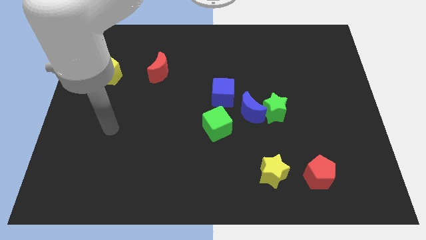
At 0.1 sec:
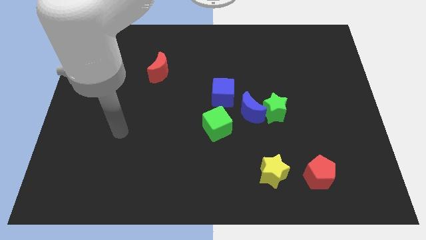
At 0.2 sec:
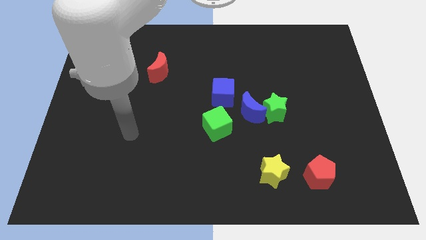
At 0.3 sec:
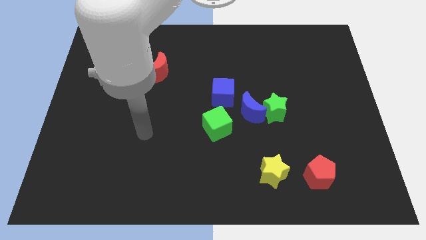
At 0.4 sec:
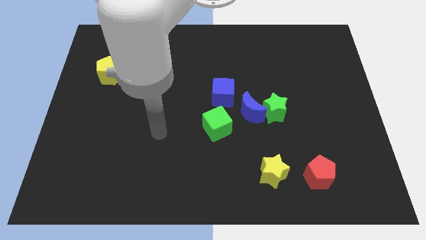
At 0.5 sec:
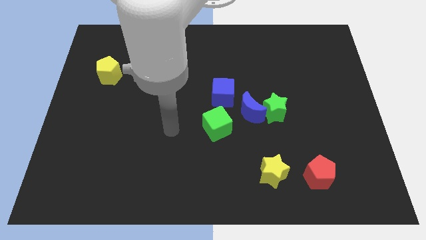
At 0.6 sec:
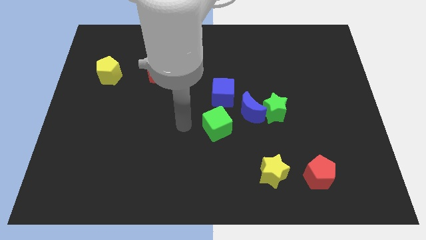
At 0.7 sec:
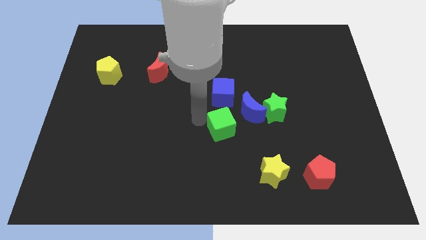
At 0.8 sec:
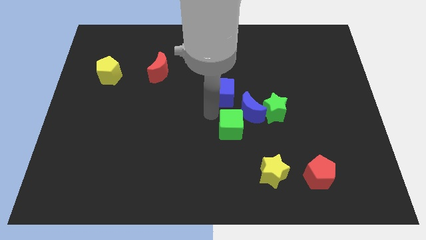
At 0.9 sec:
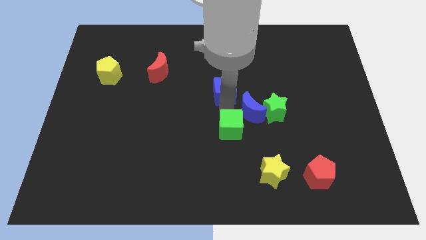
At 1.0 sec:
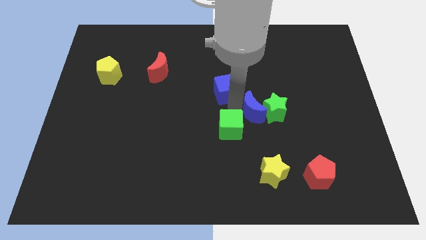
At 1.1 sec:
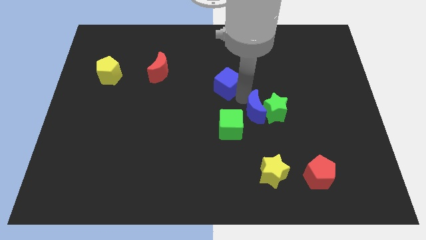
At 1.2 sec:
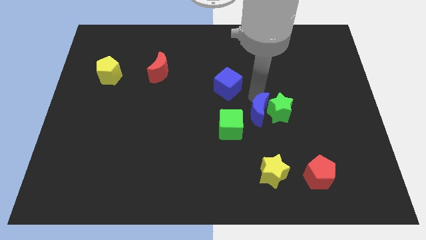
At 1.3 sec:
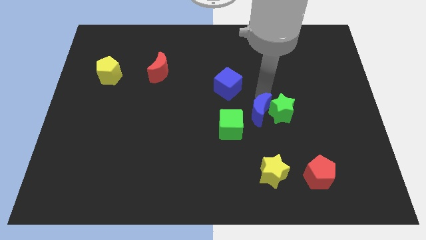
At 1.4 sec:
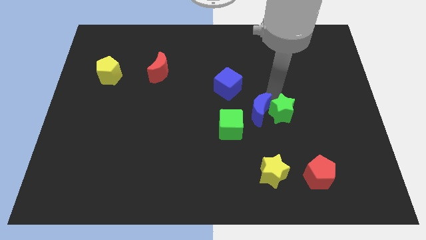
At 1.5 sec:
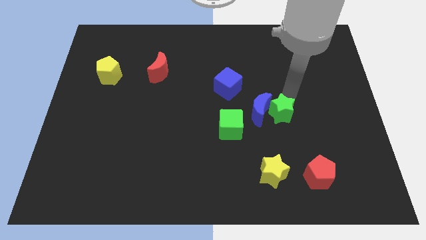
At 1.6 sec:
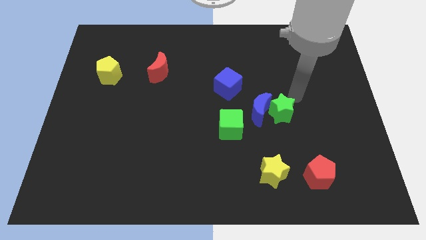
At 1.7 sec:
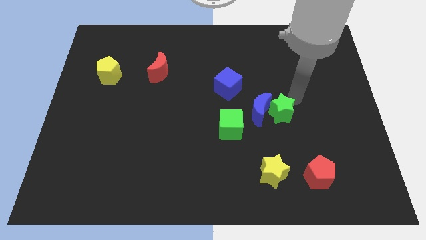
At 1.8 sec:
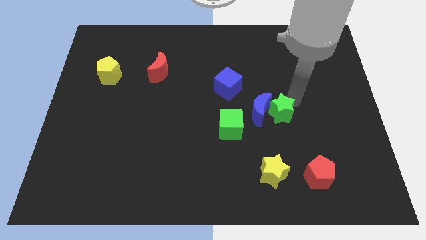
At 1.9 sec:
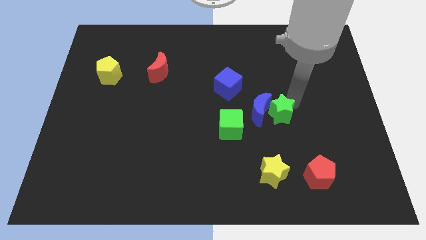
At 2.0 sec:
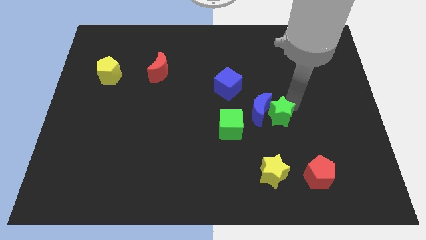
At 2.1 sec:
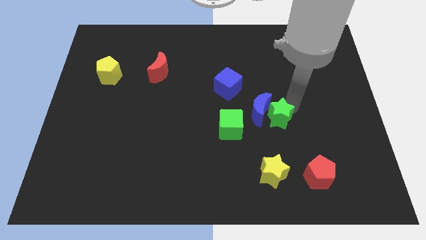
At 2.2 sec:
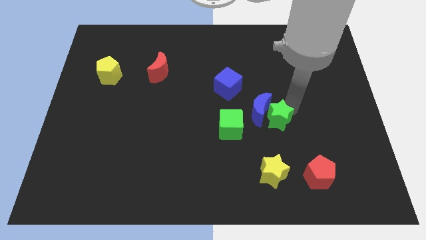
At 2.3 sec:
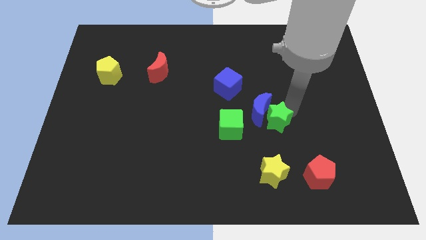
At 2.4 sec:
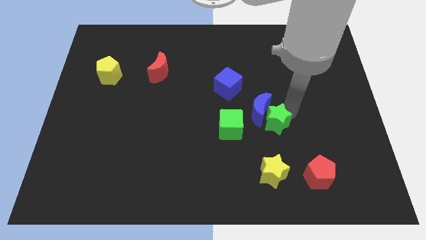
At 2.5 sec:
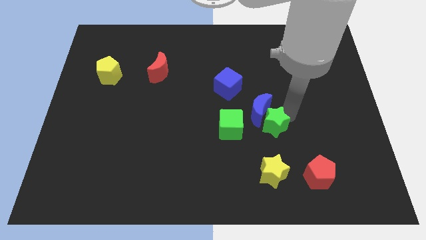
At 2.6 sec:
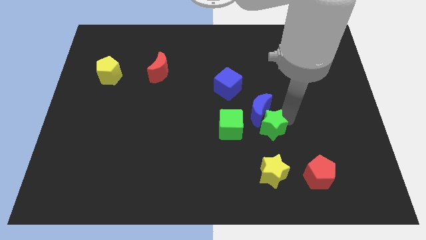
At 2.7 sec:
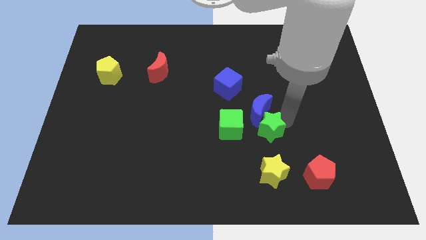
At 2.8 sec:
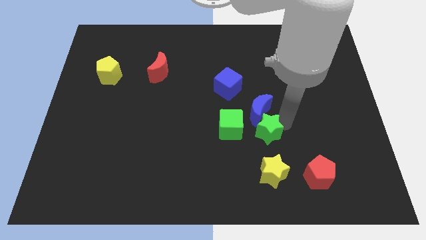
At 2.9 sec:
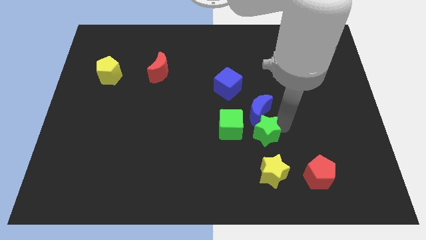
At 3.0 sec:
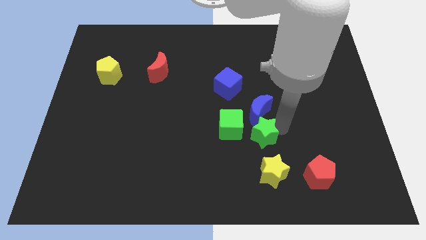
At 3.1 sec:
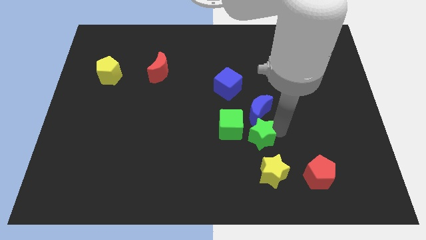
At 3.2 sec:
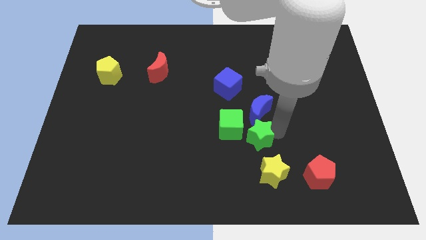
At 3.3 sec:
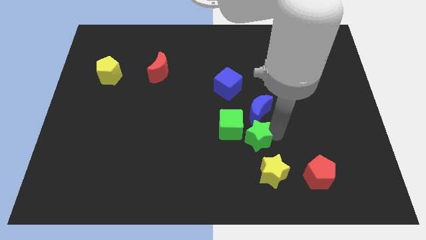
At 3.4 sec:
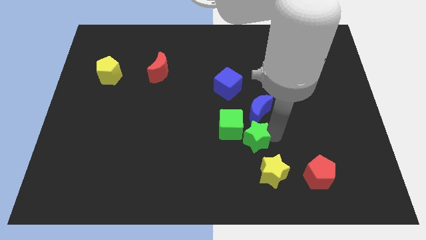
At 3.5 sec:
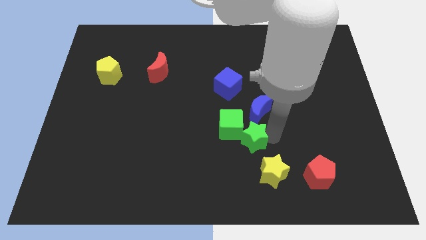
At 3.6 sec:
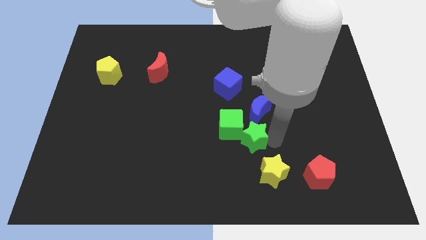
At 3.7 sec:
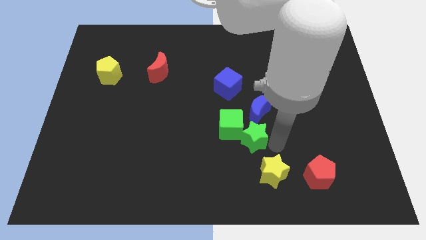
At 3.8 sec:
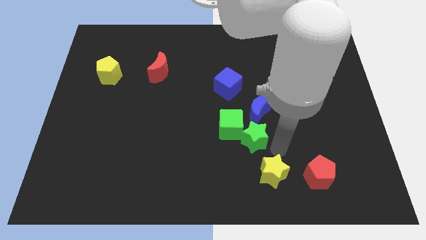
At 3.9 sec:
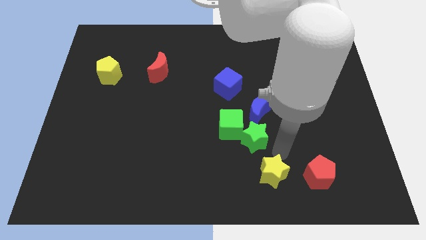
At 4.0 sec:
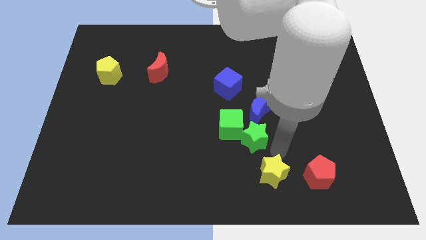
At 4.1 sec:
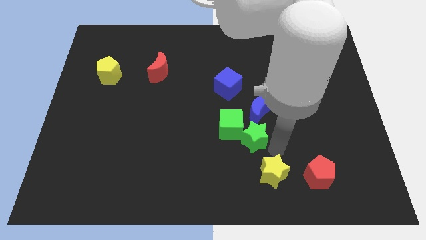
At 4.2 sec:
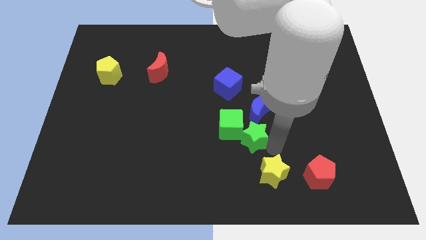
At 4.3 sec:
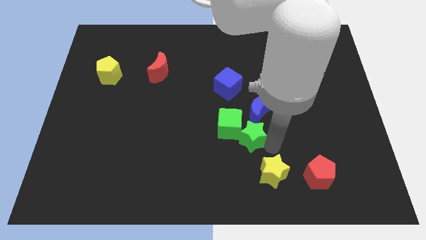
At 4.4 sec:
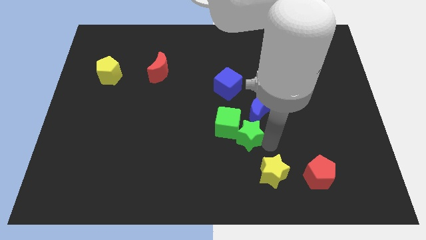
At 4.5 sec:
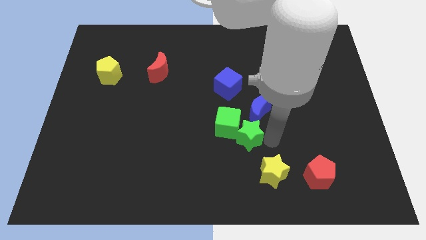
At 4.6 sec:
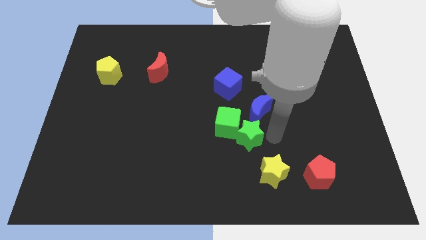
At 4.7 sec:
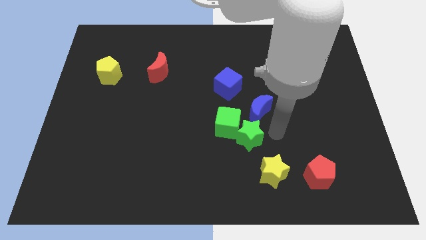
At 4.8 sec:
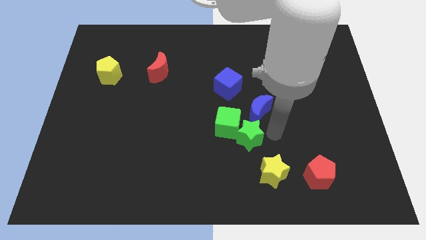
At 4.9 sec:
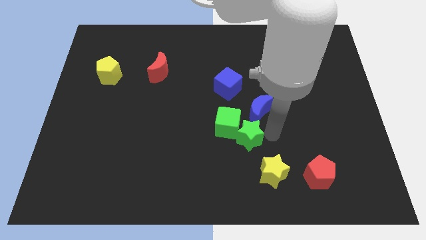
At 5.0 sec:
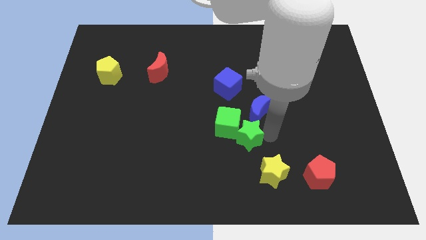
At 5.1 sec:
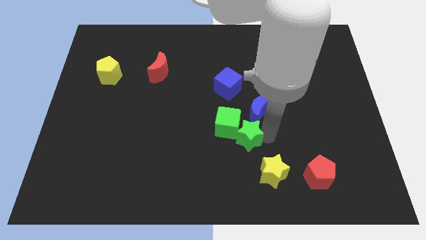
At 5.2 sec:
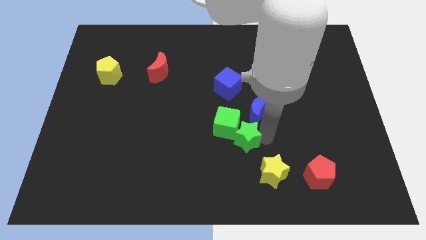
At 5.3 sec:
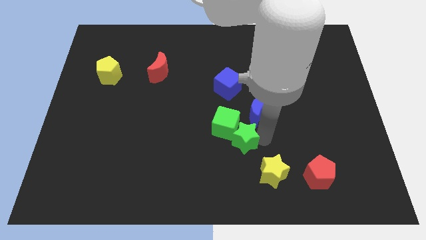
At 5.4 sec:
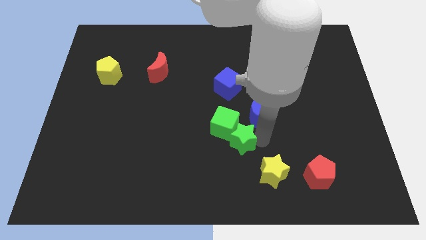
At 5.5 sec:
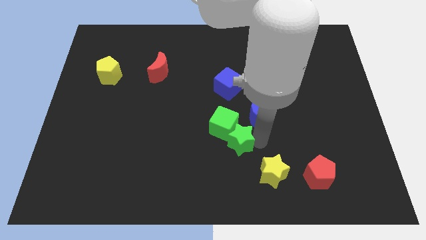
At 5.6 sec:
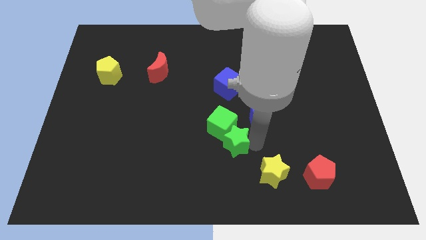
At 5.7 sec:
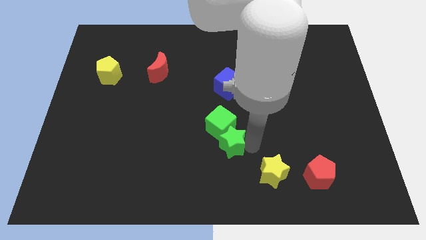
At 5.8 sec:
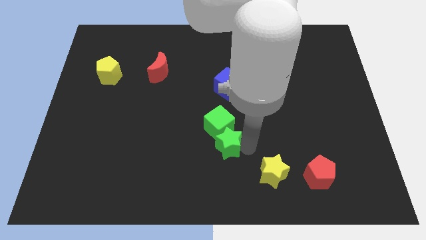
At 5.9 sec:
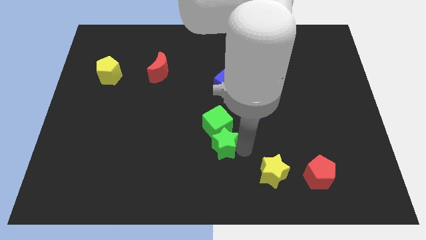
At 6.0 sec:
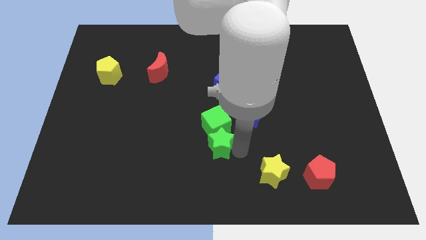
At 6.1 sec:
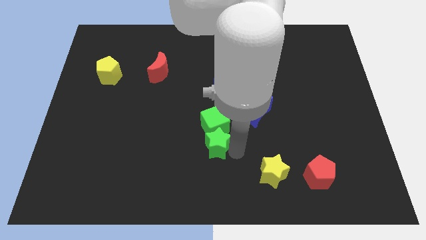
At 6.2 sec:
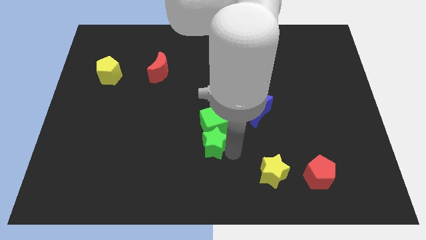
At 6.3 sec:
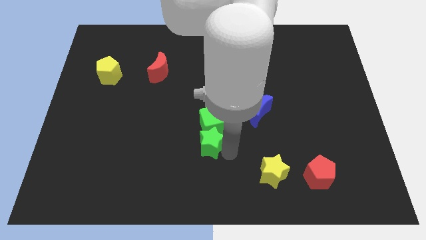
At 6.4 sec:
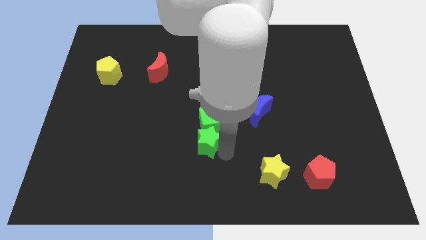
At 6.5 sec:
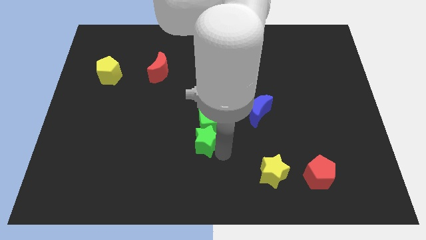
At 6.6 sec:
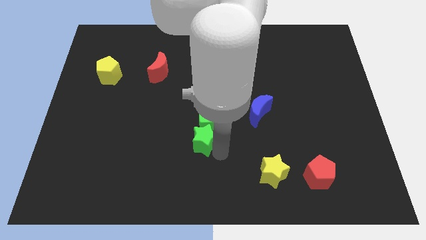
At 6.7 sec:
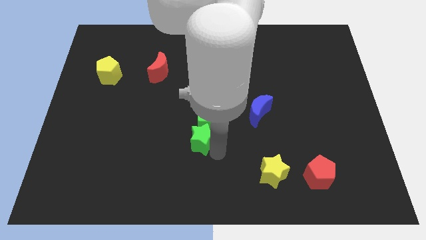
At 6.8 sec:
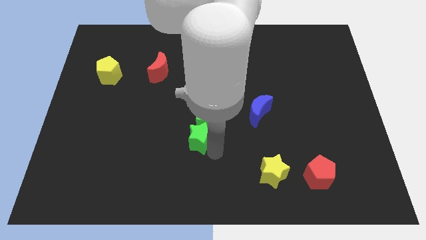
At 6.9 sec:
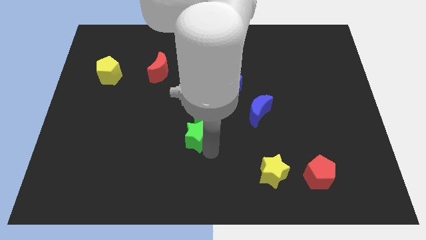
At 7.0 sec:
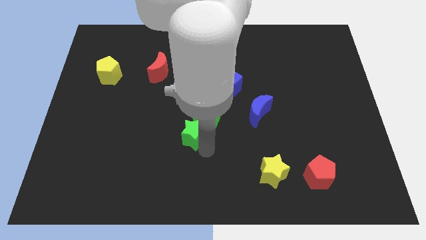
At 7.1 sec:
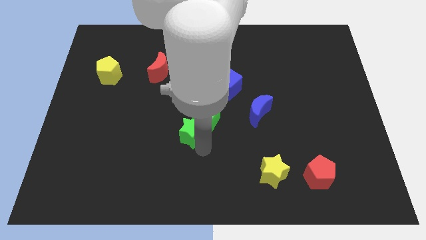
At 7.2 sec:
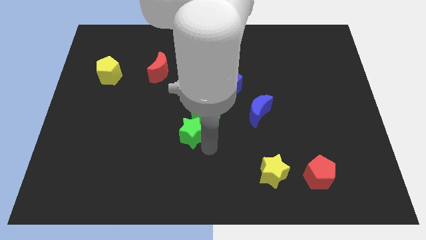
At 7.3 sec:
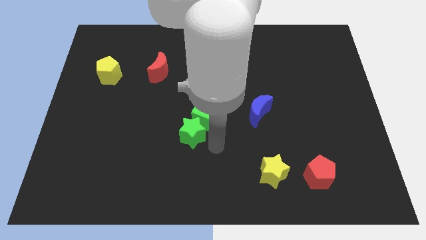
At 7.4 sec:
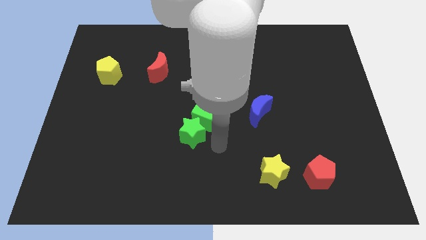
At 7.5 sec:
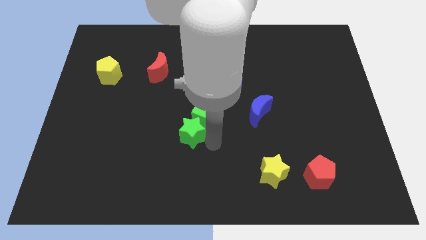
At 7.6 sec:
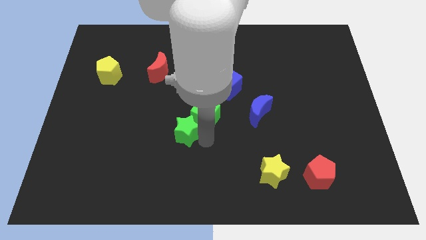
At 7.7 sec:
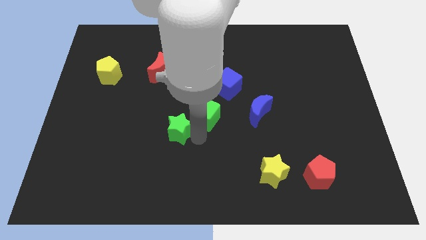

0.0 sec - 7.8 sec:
move the green star left
